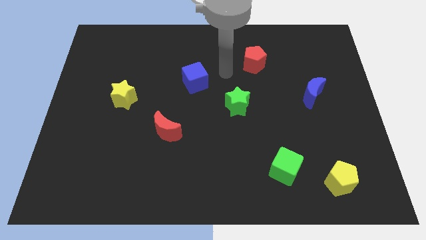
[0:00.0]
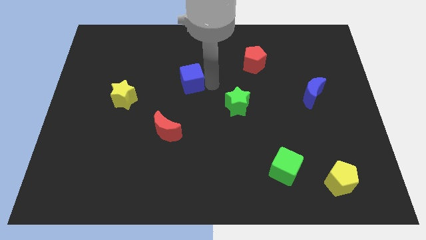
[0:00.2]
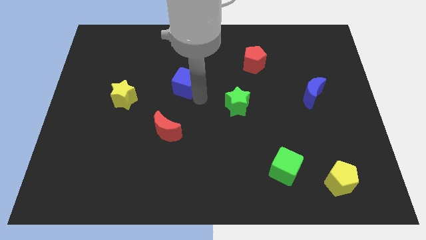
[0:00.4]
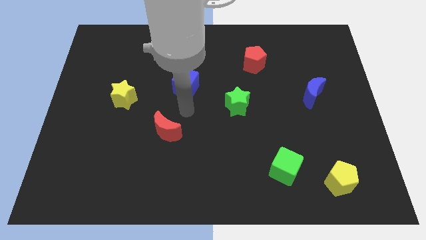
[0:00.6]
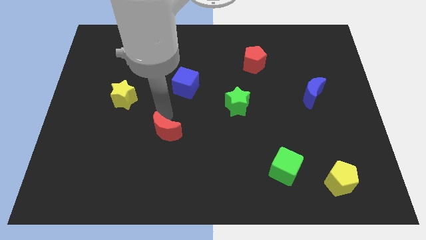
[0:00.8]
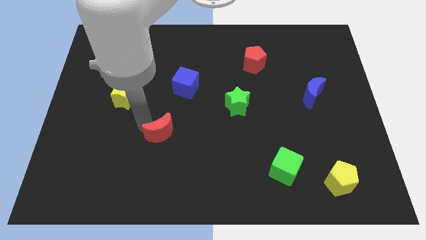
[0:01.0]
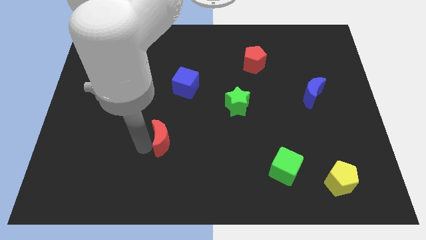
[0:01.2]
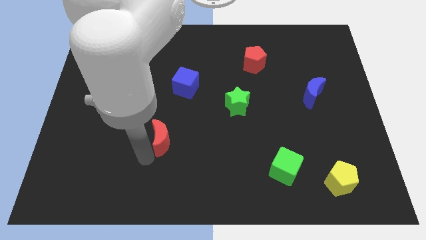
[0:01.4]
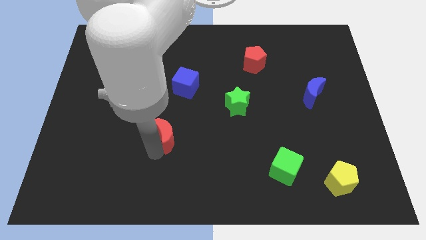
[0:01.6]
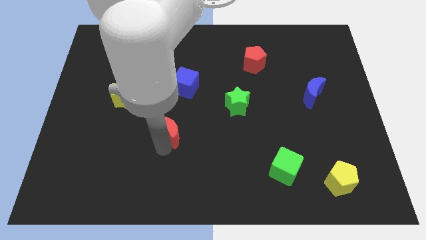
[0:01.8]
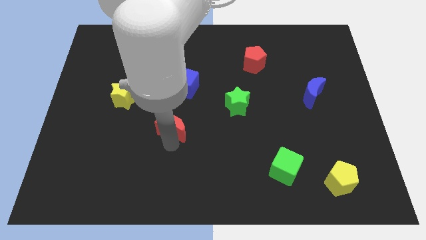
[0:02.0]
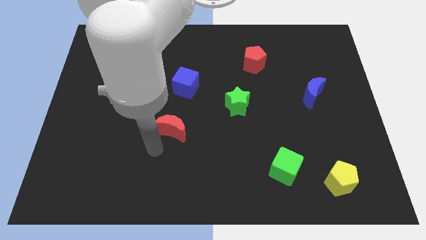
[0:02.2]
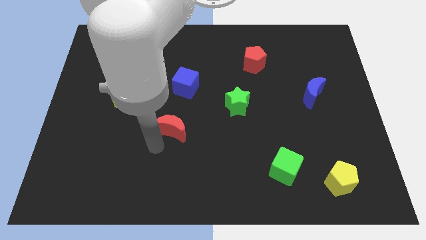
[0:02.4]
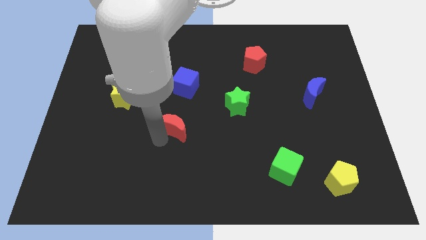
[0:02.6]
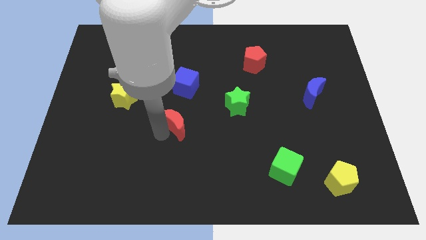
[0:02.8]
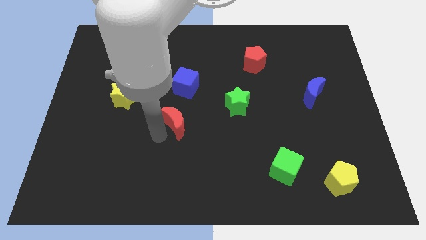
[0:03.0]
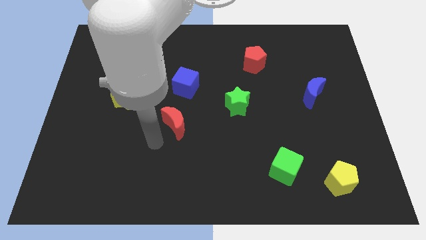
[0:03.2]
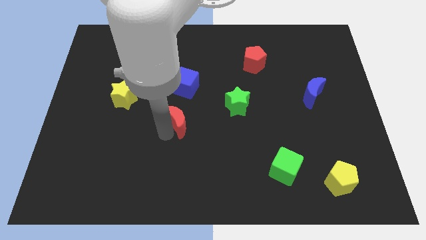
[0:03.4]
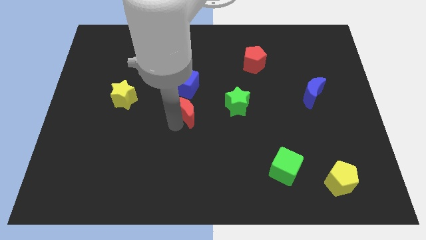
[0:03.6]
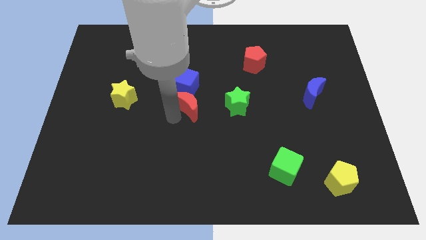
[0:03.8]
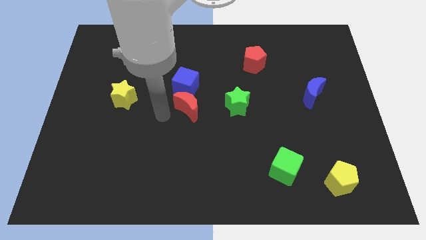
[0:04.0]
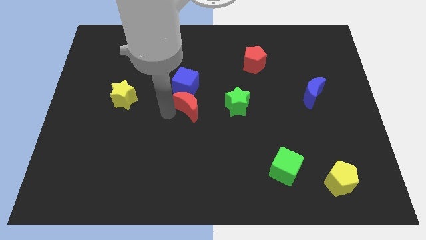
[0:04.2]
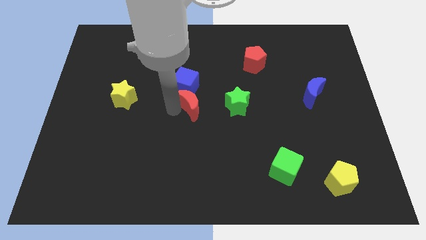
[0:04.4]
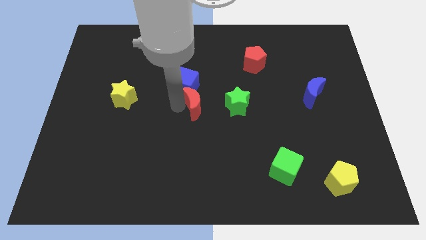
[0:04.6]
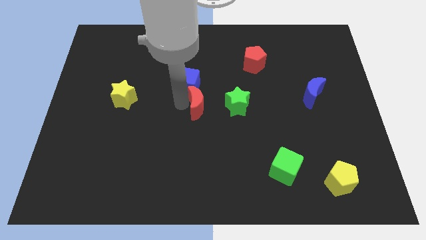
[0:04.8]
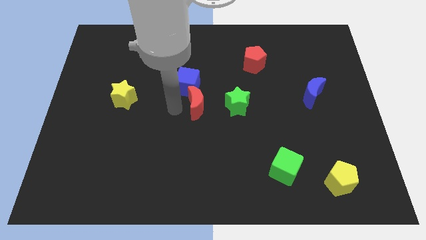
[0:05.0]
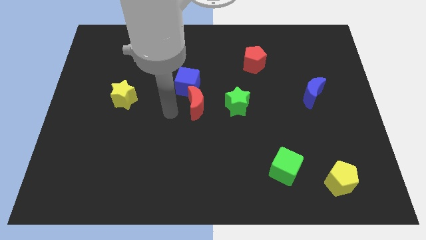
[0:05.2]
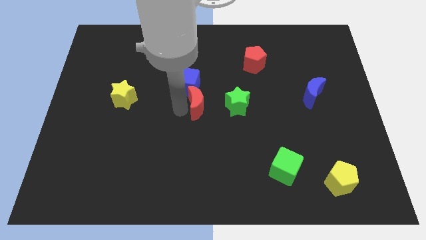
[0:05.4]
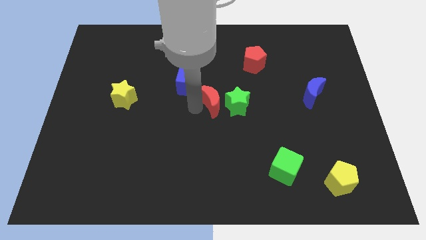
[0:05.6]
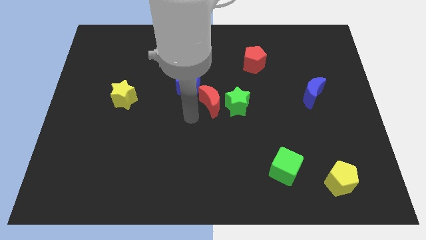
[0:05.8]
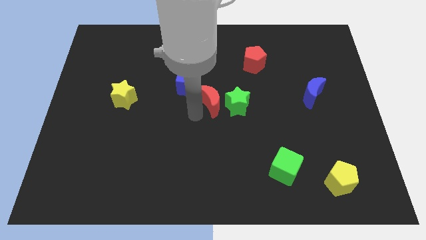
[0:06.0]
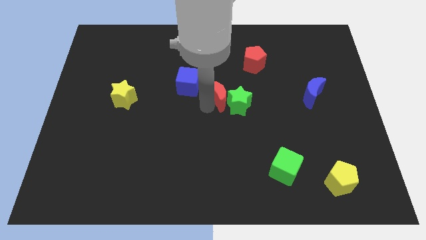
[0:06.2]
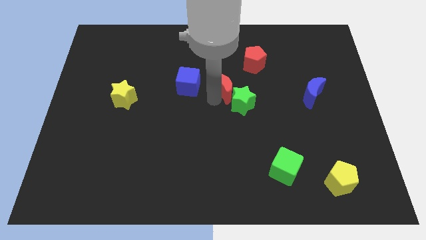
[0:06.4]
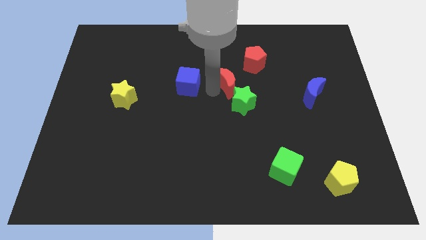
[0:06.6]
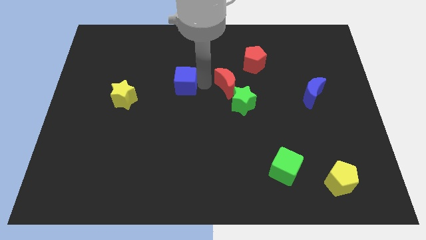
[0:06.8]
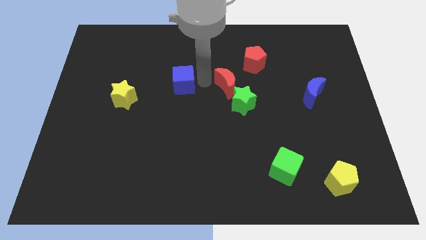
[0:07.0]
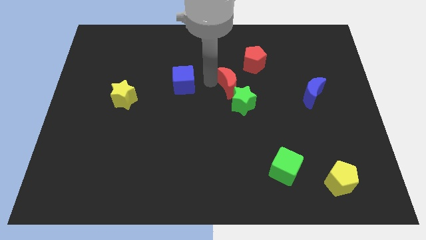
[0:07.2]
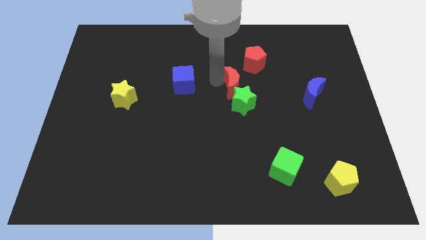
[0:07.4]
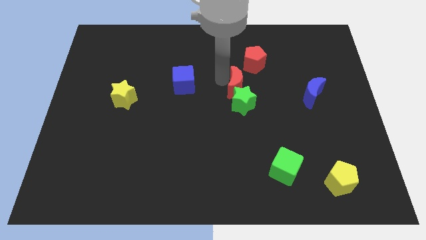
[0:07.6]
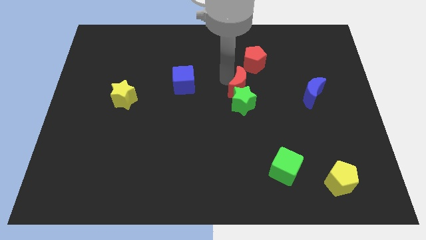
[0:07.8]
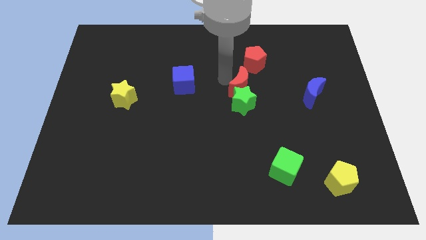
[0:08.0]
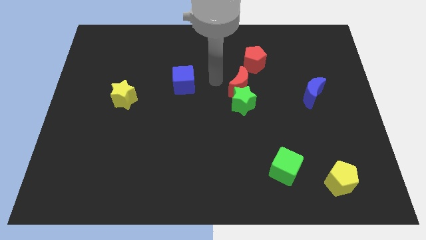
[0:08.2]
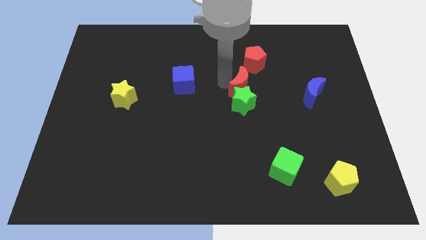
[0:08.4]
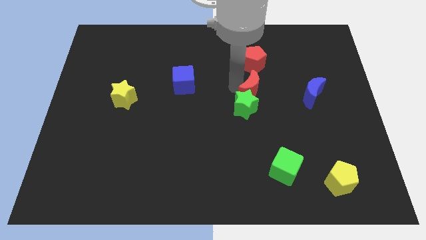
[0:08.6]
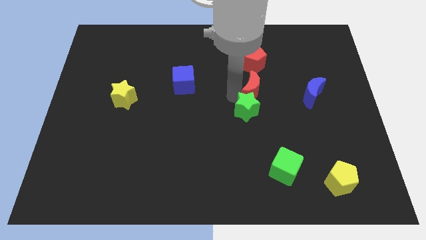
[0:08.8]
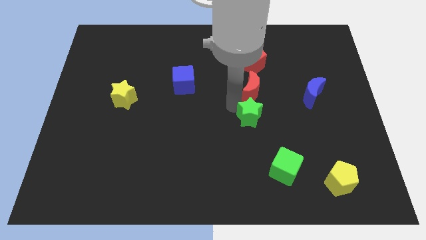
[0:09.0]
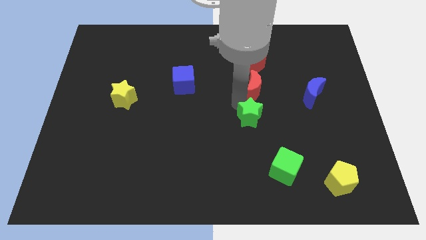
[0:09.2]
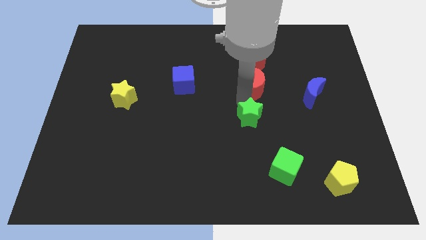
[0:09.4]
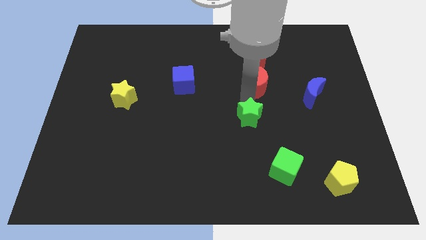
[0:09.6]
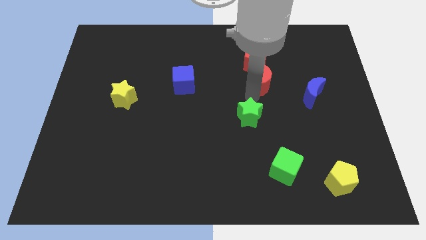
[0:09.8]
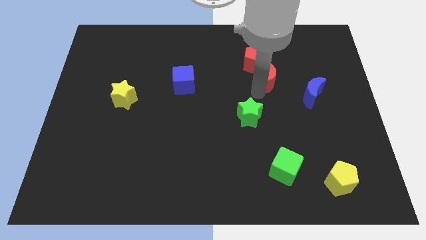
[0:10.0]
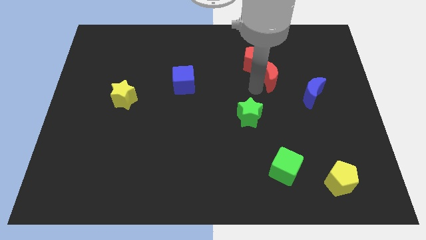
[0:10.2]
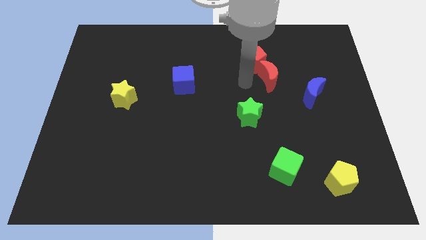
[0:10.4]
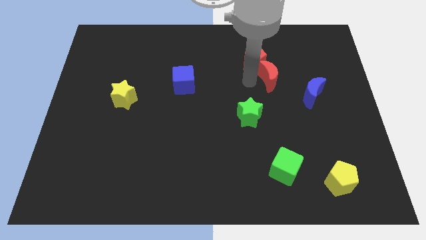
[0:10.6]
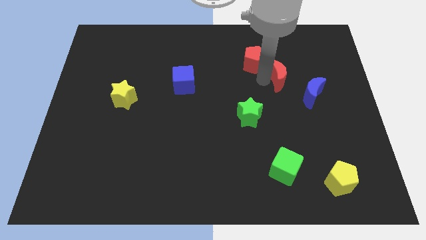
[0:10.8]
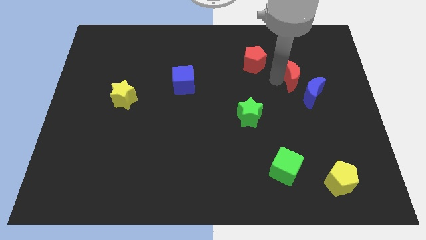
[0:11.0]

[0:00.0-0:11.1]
put the red moon to the top of the blue moon

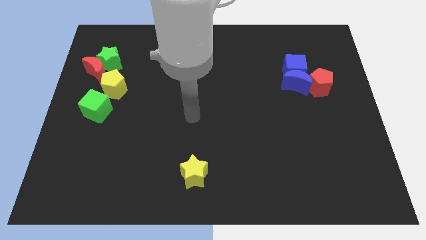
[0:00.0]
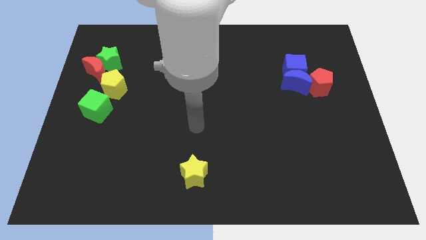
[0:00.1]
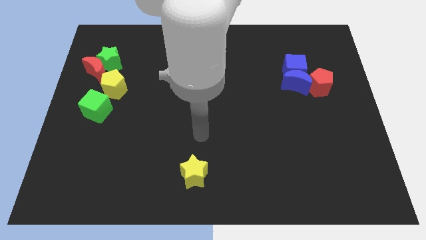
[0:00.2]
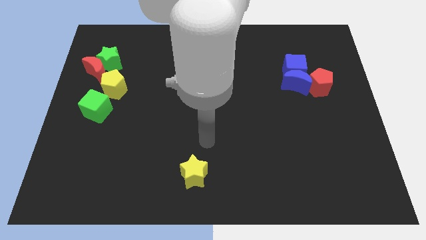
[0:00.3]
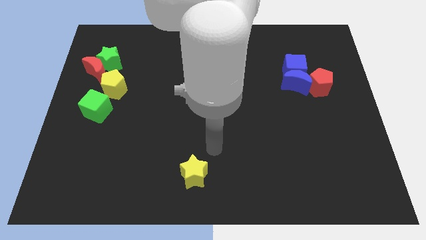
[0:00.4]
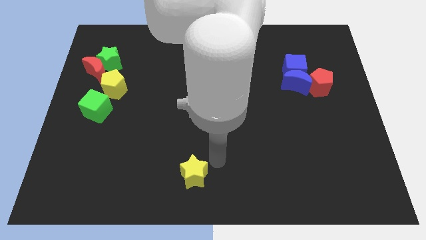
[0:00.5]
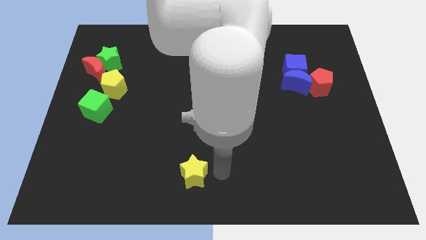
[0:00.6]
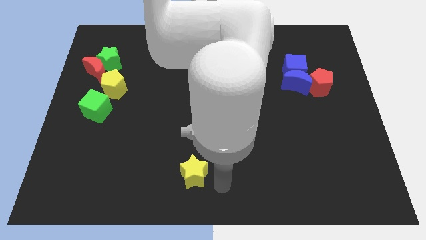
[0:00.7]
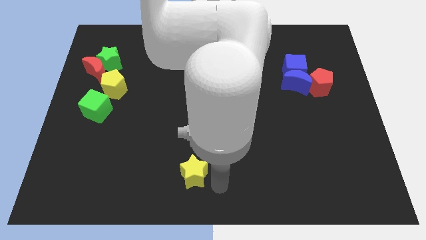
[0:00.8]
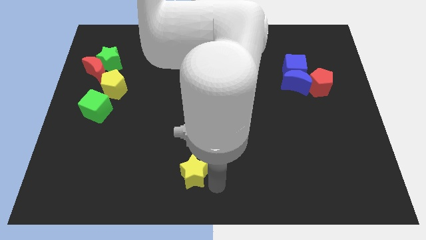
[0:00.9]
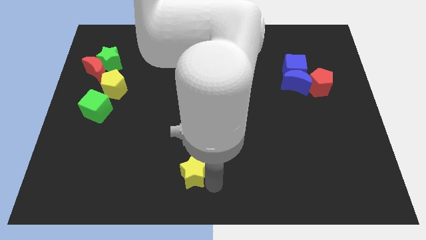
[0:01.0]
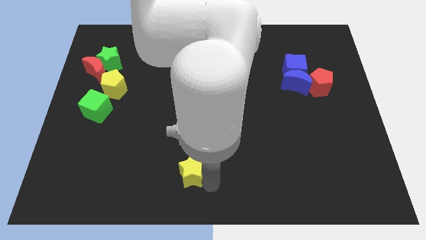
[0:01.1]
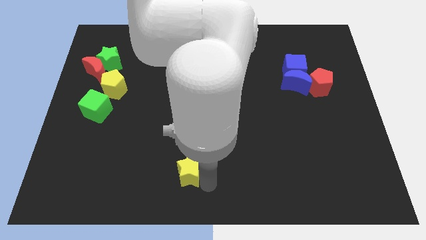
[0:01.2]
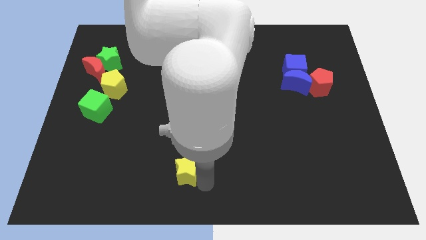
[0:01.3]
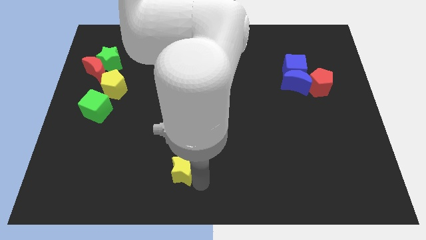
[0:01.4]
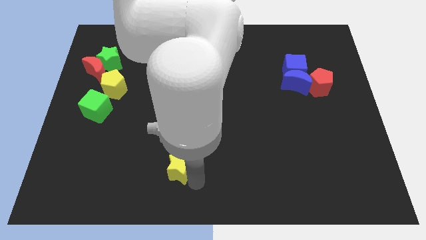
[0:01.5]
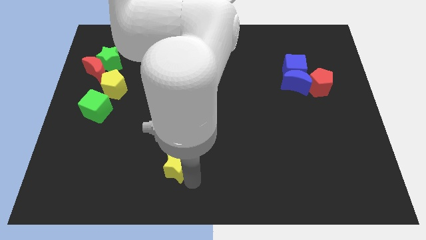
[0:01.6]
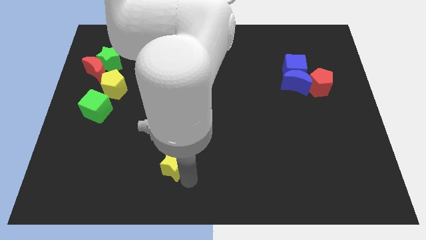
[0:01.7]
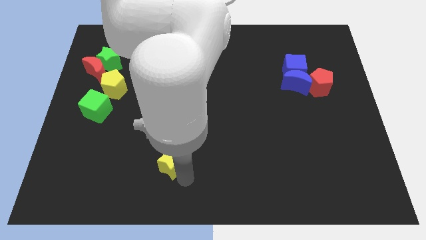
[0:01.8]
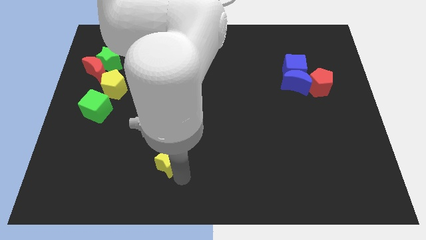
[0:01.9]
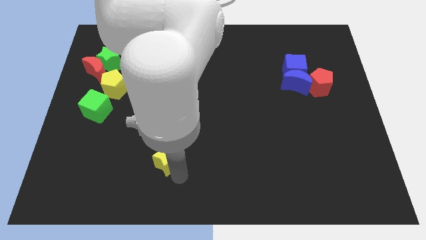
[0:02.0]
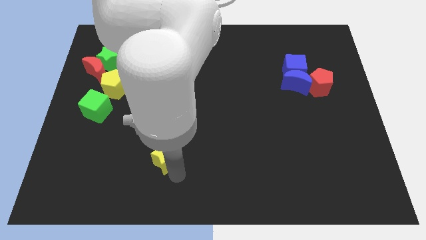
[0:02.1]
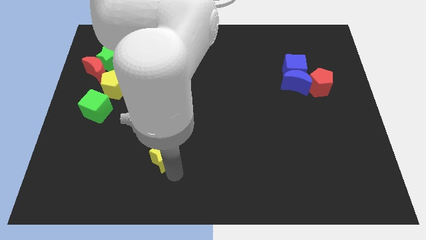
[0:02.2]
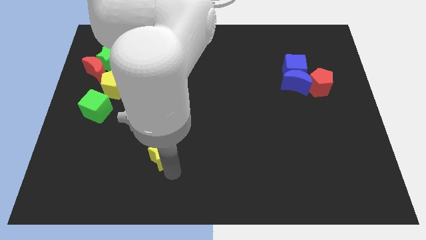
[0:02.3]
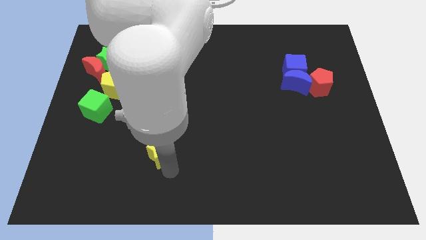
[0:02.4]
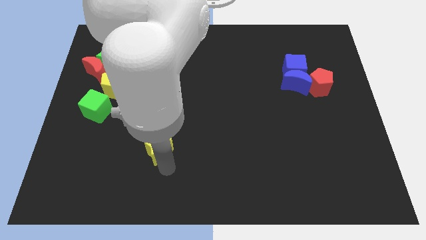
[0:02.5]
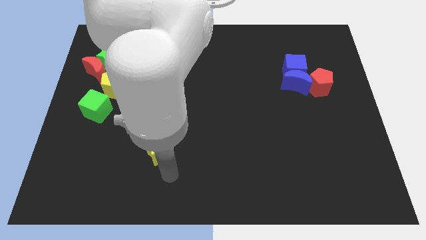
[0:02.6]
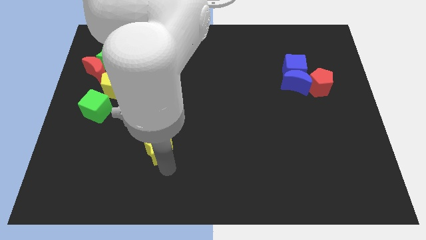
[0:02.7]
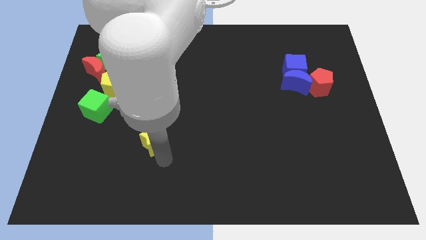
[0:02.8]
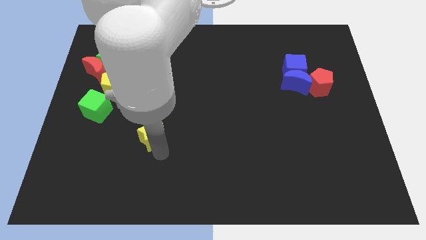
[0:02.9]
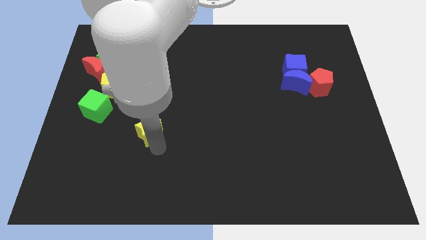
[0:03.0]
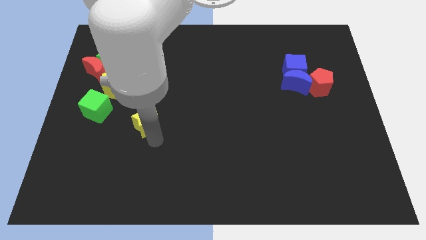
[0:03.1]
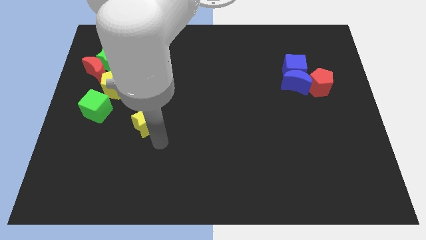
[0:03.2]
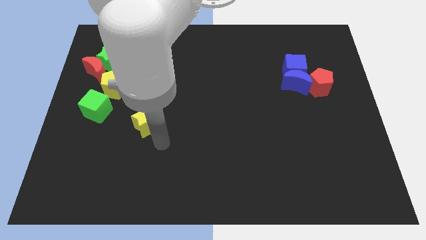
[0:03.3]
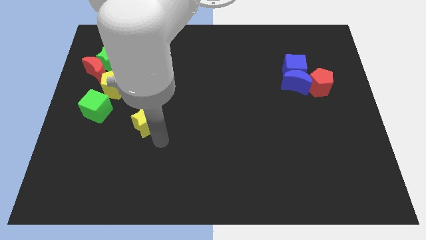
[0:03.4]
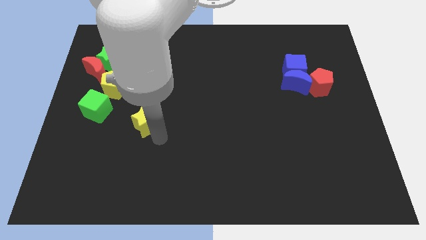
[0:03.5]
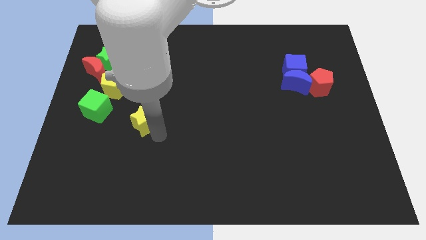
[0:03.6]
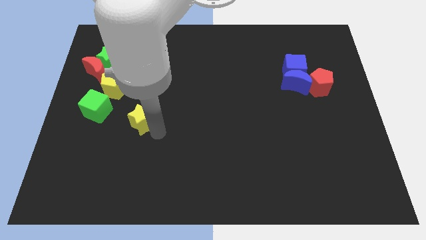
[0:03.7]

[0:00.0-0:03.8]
move the yellow star to the bottom right side of the yellow pentagon
